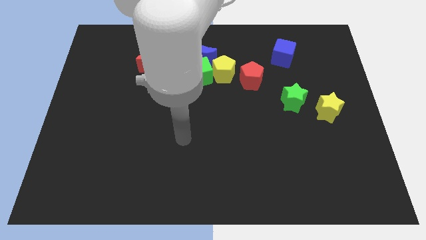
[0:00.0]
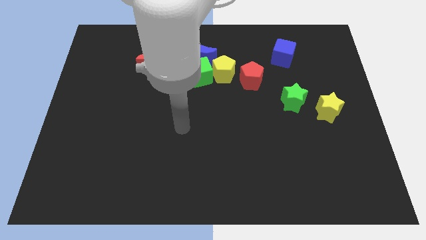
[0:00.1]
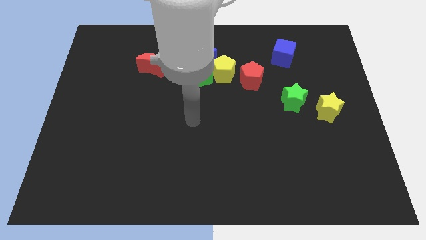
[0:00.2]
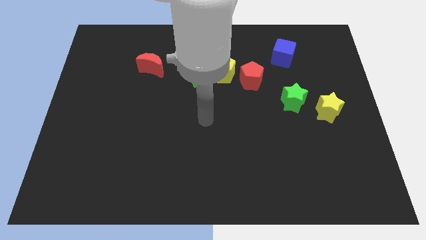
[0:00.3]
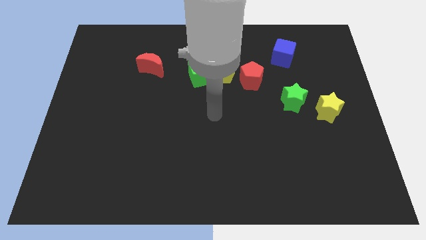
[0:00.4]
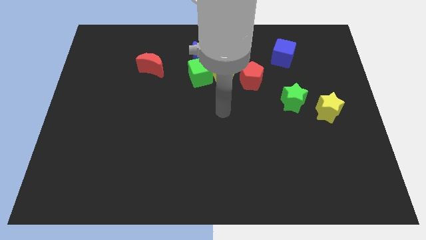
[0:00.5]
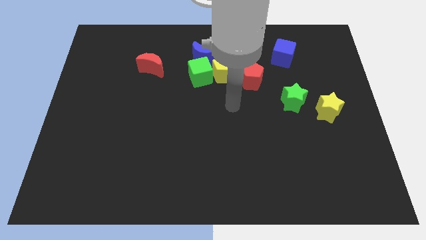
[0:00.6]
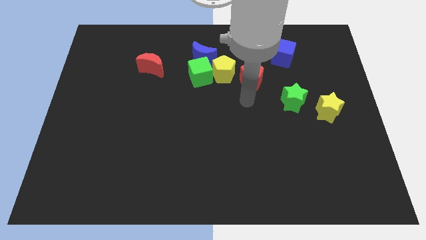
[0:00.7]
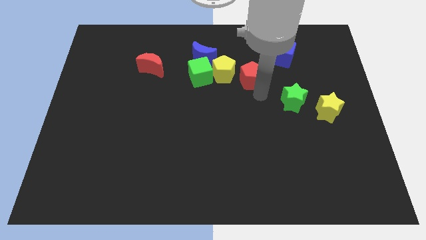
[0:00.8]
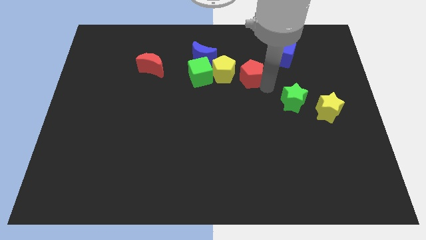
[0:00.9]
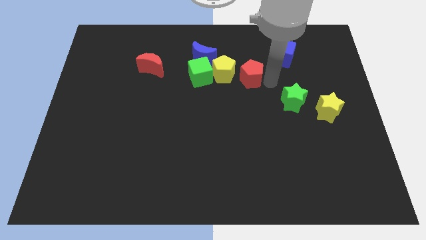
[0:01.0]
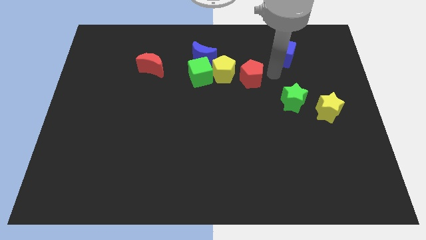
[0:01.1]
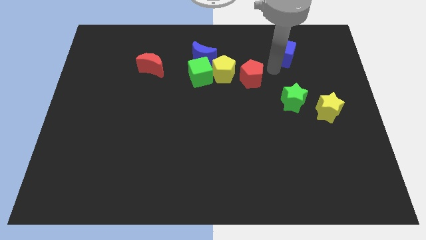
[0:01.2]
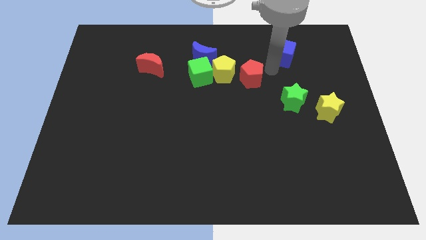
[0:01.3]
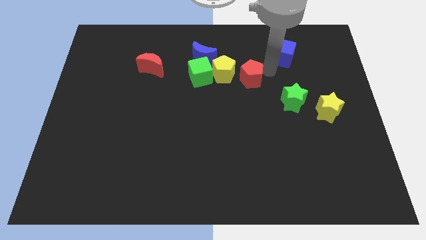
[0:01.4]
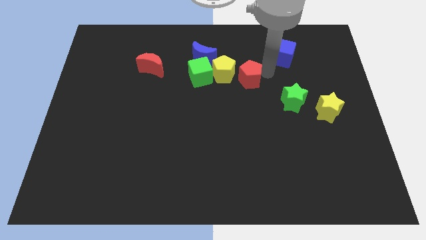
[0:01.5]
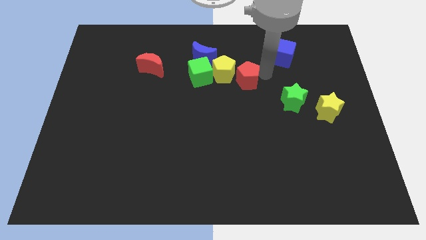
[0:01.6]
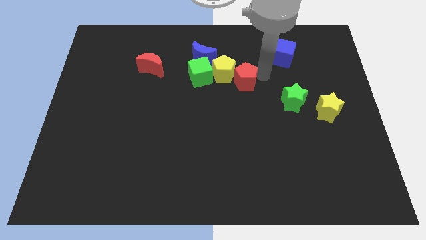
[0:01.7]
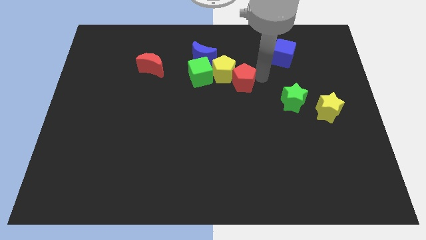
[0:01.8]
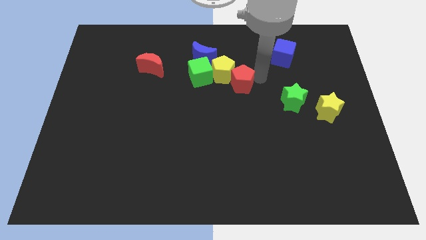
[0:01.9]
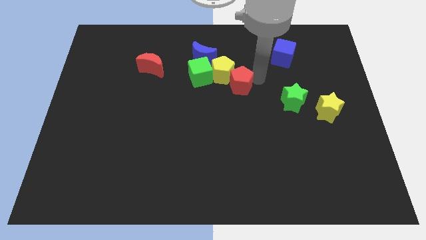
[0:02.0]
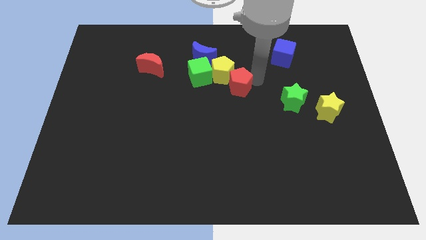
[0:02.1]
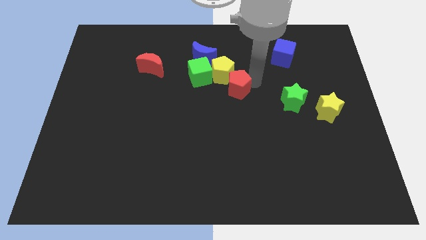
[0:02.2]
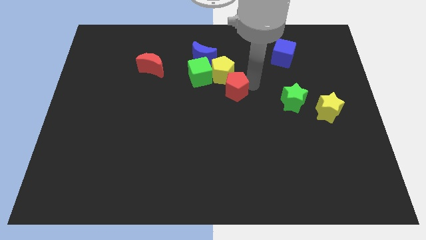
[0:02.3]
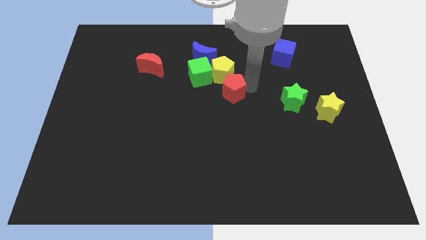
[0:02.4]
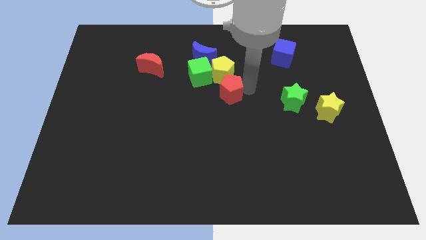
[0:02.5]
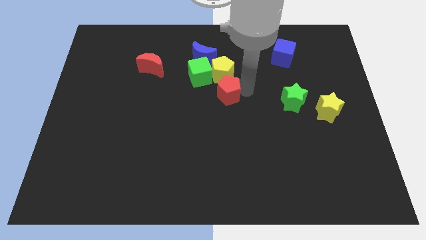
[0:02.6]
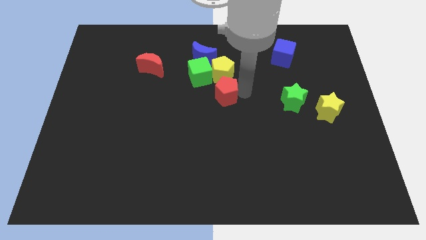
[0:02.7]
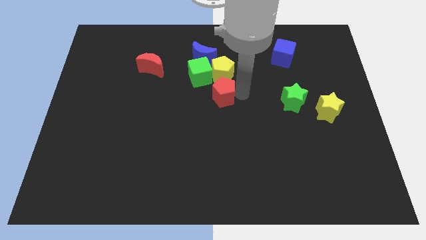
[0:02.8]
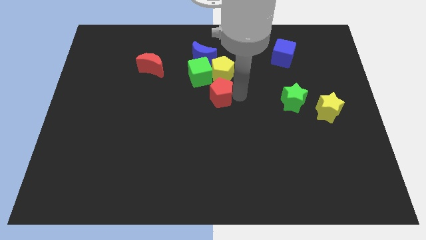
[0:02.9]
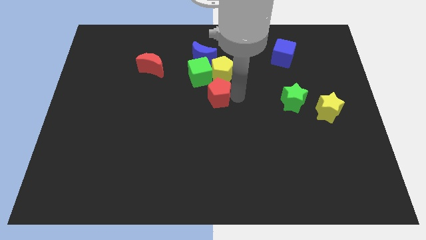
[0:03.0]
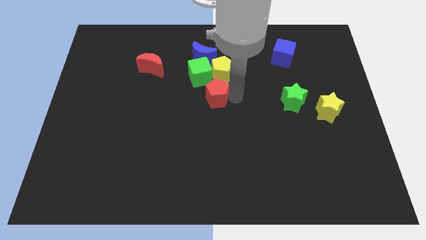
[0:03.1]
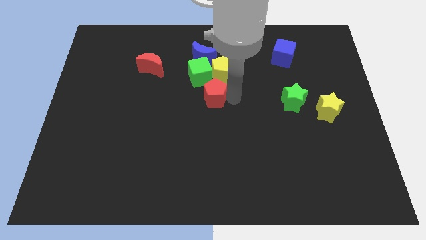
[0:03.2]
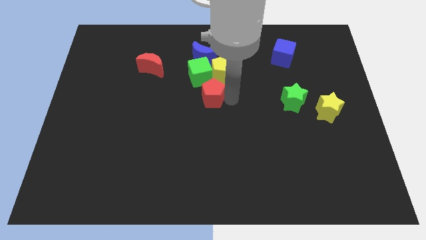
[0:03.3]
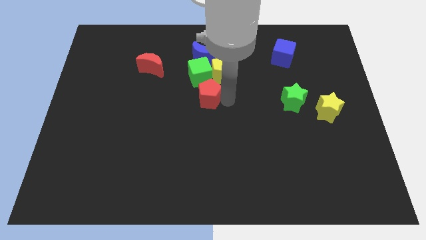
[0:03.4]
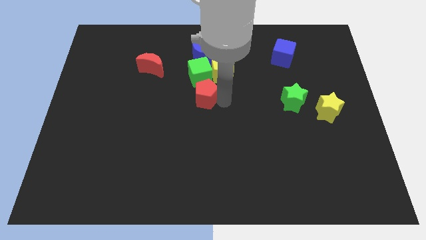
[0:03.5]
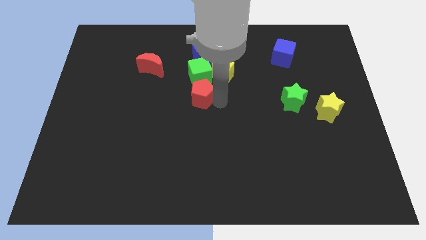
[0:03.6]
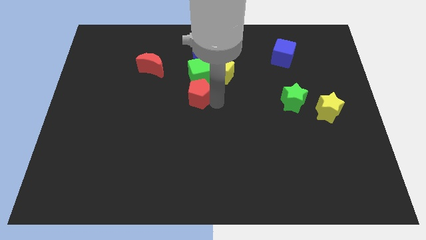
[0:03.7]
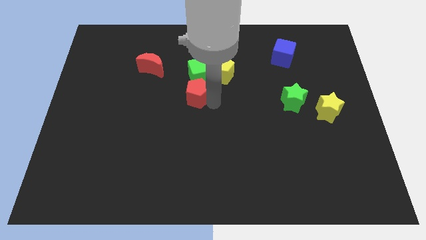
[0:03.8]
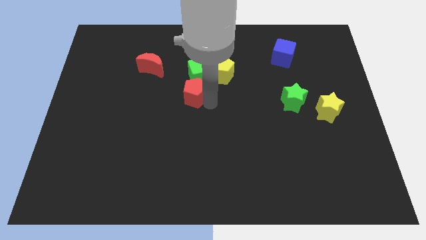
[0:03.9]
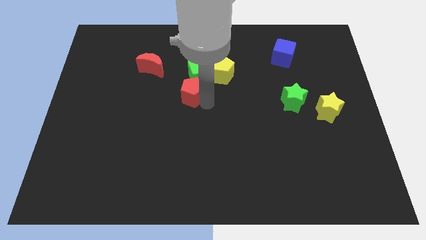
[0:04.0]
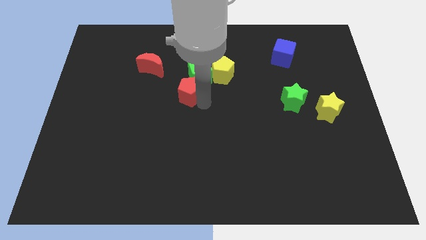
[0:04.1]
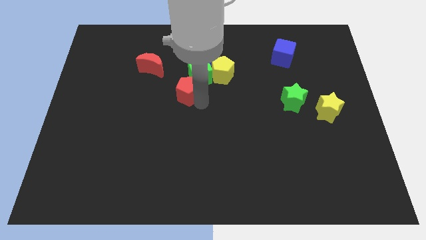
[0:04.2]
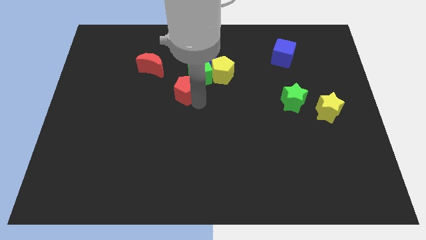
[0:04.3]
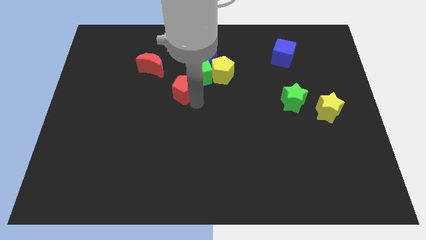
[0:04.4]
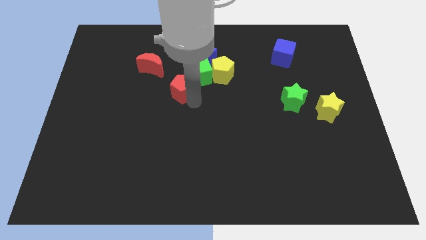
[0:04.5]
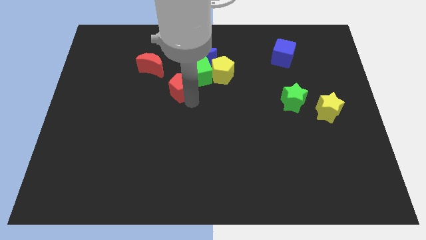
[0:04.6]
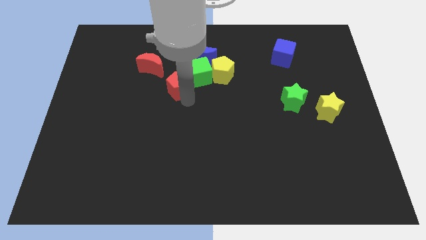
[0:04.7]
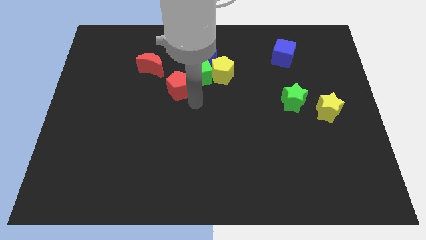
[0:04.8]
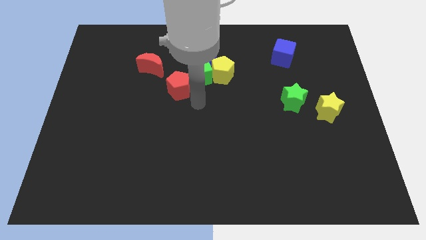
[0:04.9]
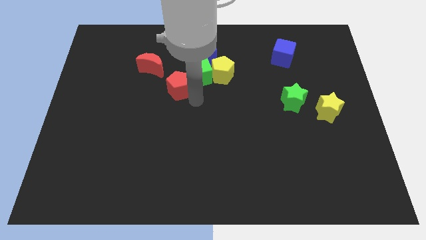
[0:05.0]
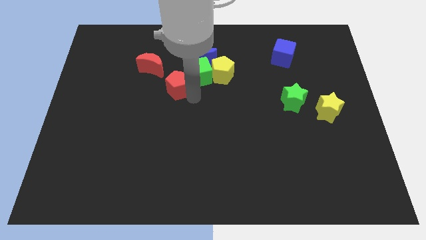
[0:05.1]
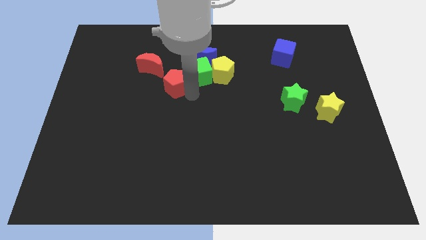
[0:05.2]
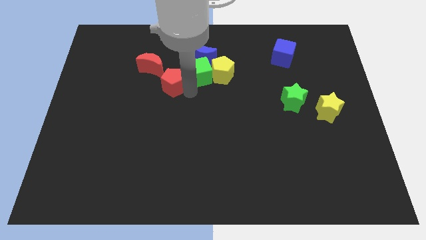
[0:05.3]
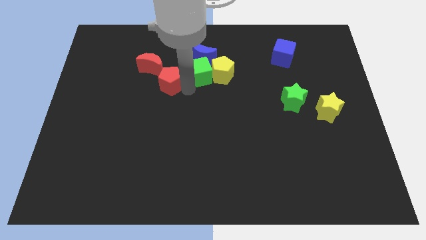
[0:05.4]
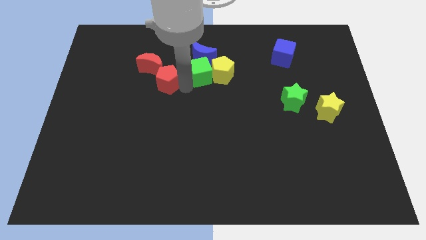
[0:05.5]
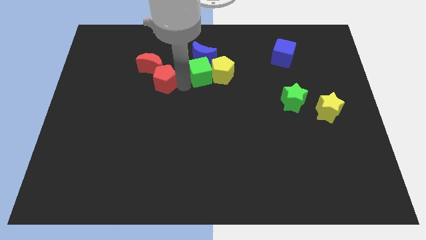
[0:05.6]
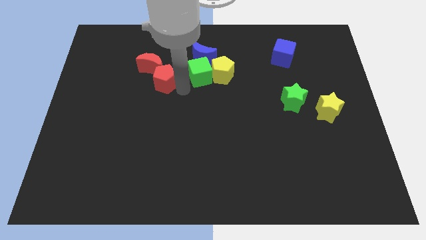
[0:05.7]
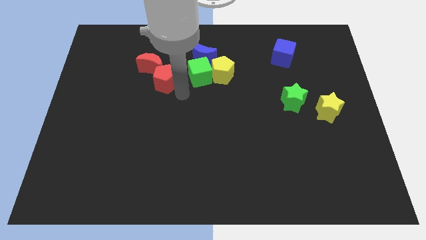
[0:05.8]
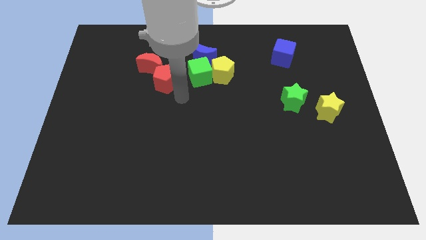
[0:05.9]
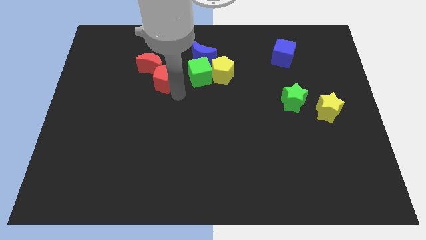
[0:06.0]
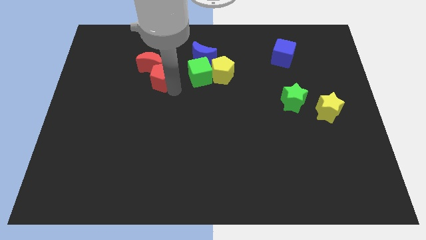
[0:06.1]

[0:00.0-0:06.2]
slide the red pentagon close to the red moon
